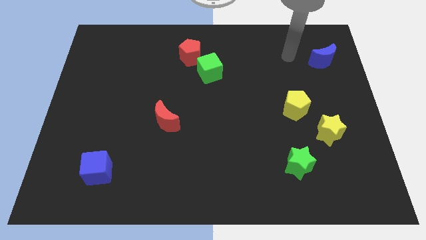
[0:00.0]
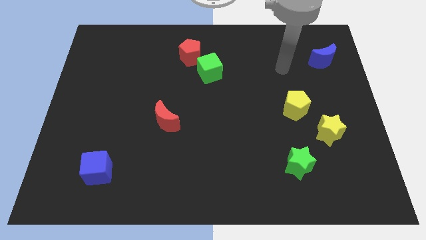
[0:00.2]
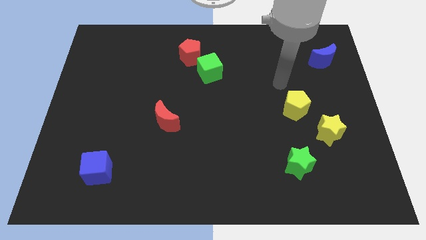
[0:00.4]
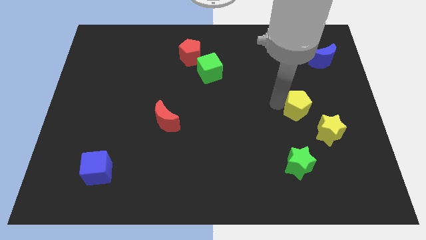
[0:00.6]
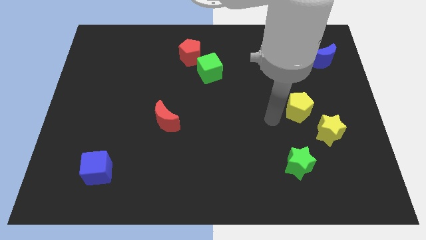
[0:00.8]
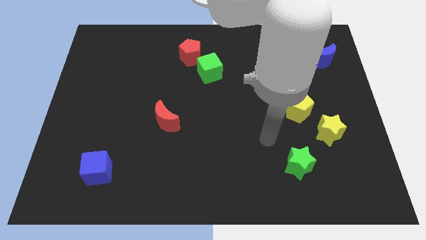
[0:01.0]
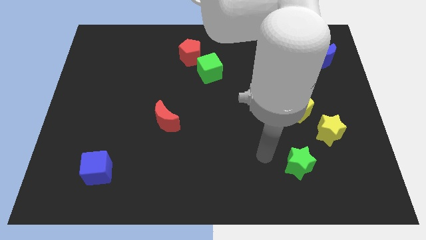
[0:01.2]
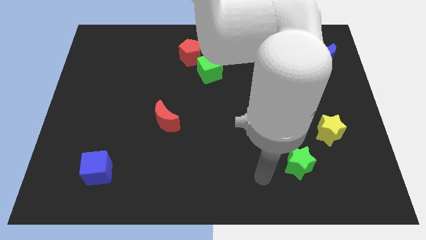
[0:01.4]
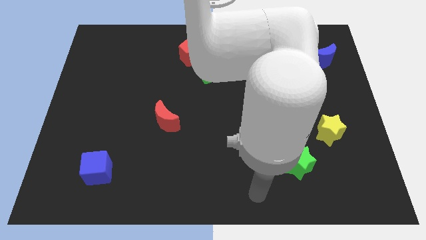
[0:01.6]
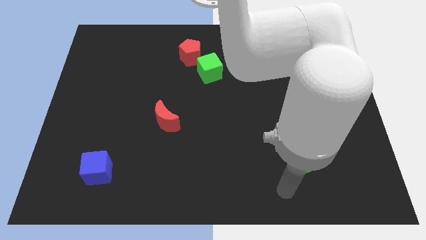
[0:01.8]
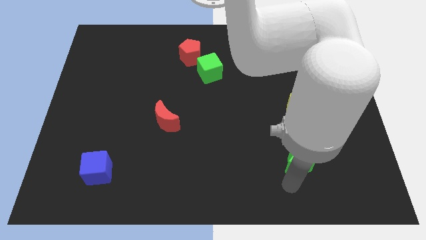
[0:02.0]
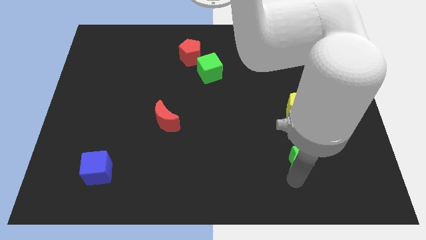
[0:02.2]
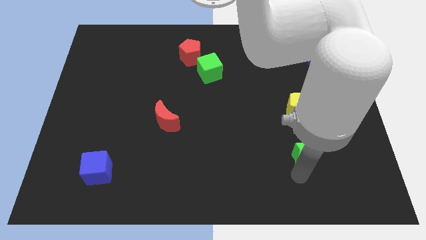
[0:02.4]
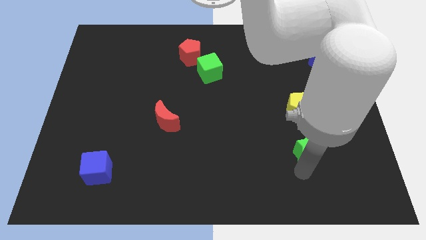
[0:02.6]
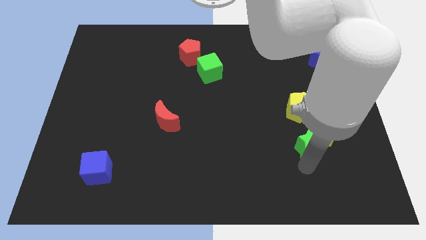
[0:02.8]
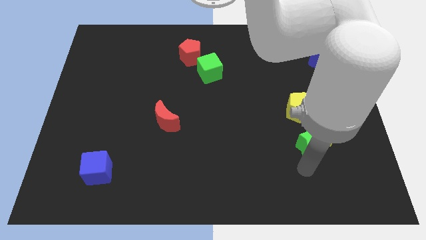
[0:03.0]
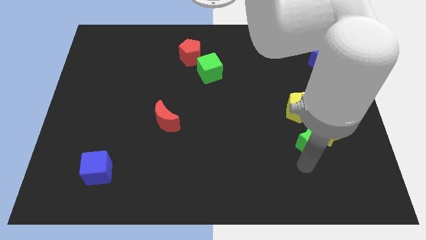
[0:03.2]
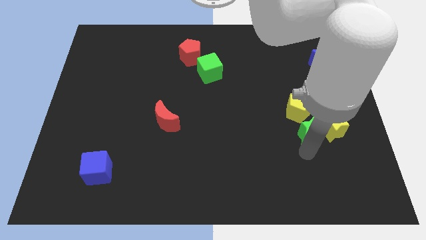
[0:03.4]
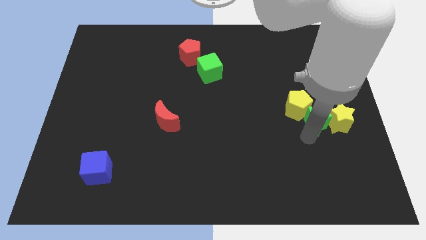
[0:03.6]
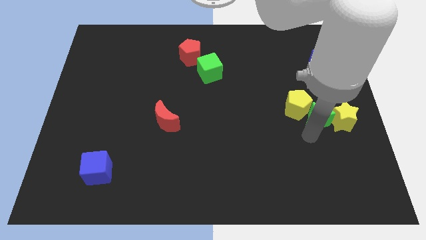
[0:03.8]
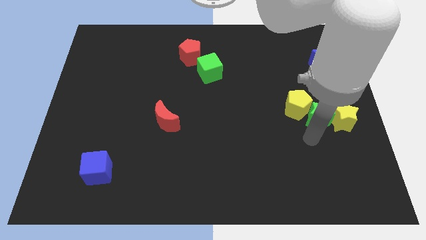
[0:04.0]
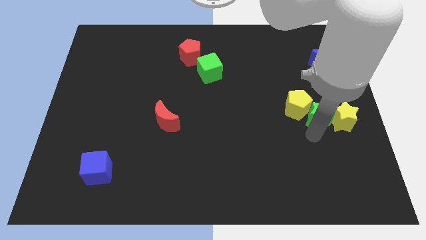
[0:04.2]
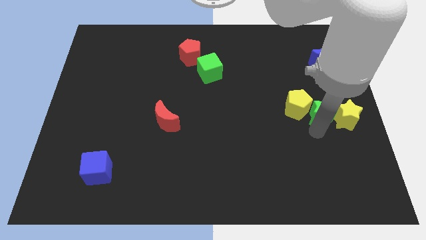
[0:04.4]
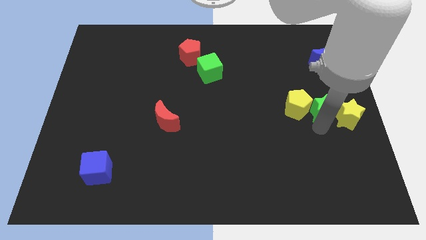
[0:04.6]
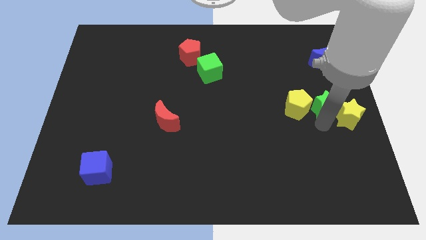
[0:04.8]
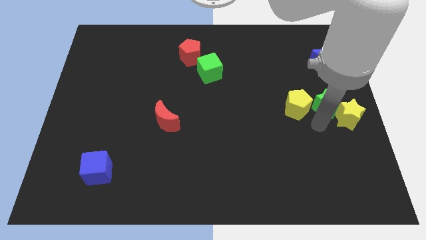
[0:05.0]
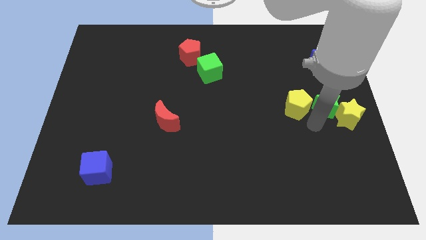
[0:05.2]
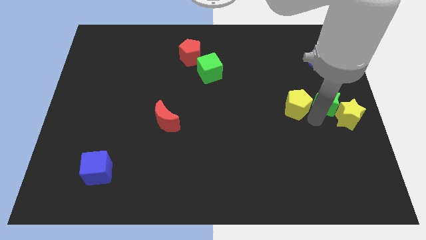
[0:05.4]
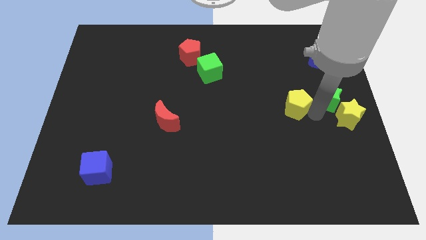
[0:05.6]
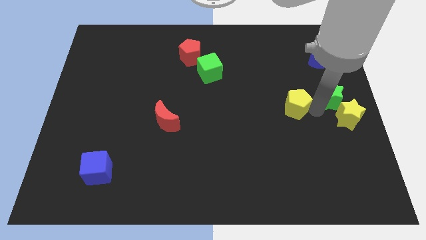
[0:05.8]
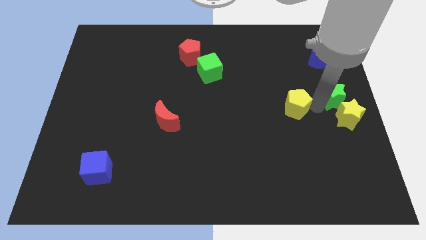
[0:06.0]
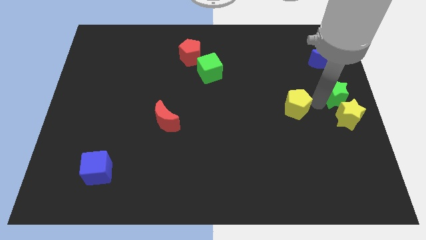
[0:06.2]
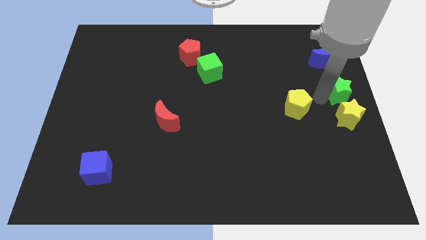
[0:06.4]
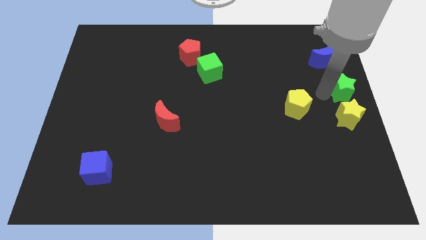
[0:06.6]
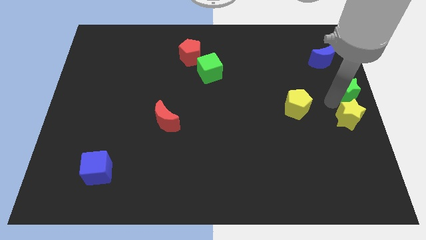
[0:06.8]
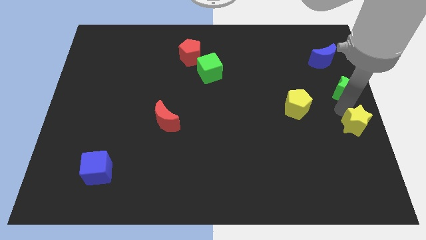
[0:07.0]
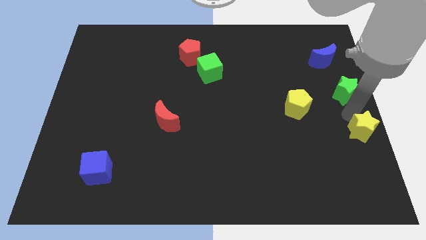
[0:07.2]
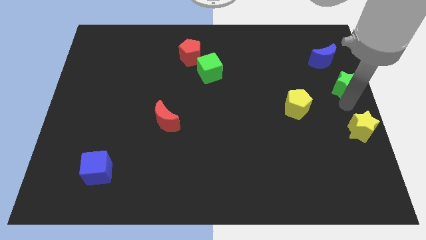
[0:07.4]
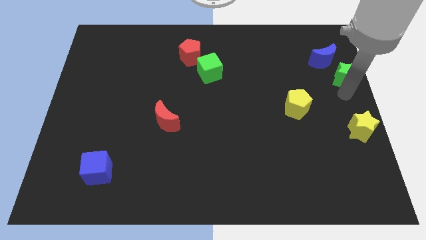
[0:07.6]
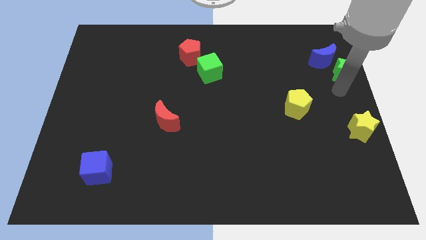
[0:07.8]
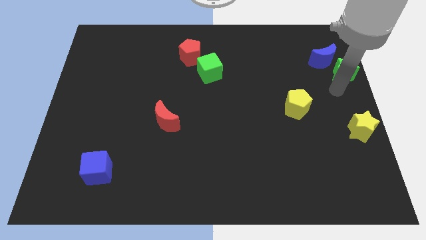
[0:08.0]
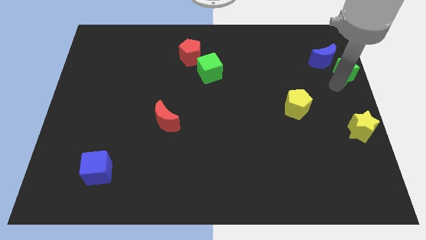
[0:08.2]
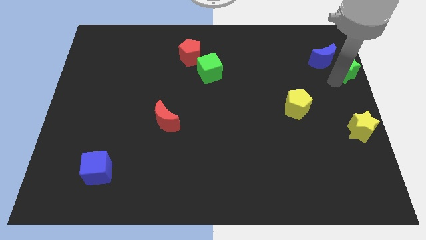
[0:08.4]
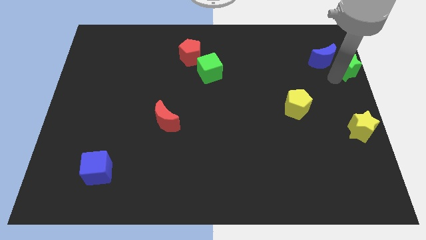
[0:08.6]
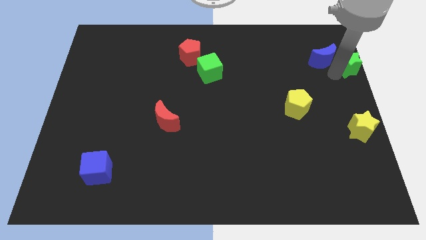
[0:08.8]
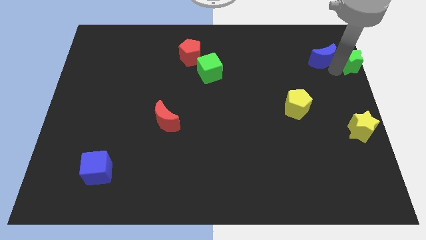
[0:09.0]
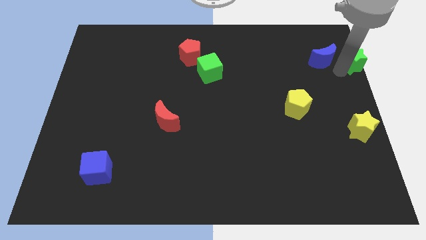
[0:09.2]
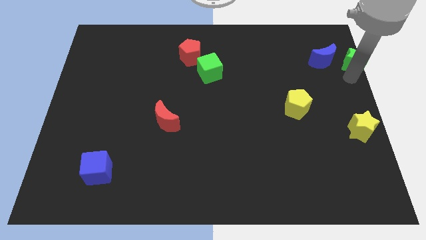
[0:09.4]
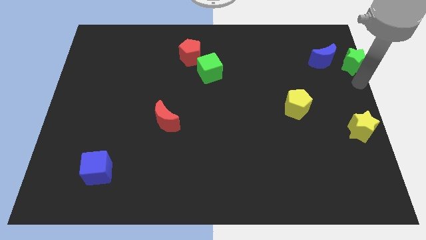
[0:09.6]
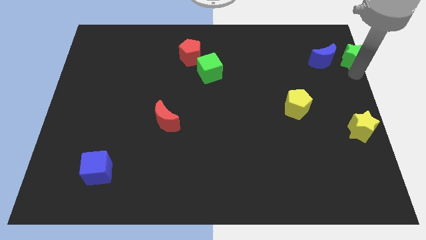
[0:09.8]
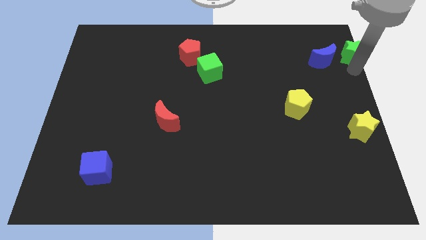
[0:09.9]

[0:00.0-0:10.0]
push the green star to the top right

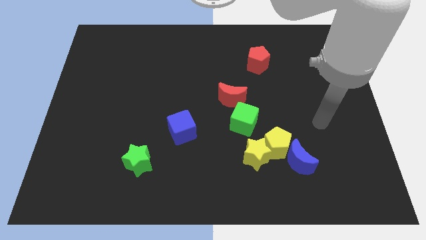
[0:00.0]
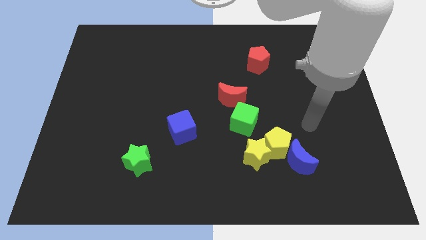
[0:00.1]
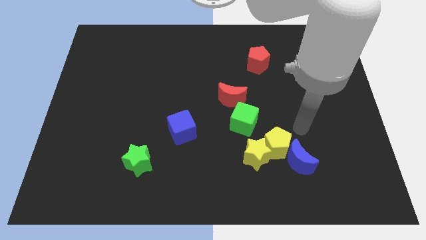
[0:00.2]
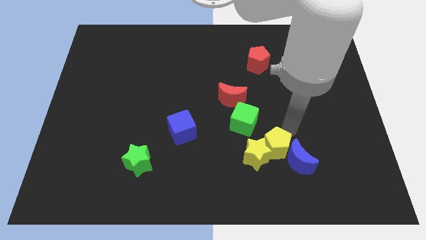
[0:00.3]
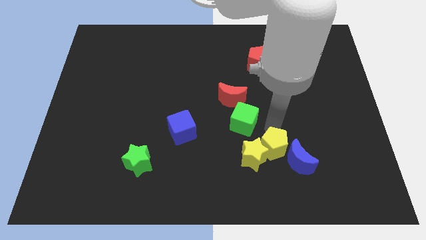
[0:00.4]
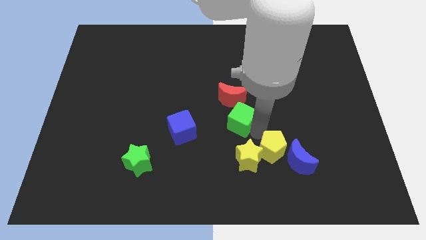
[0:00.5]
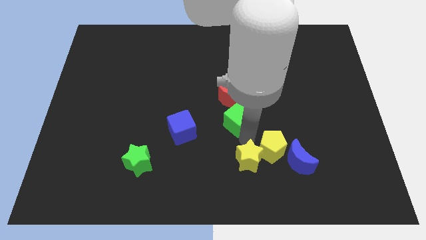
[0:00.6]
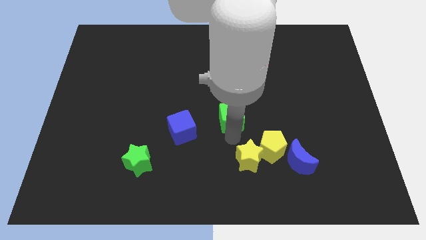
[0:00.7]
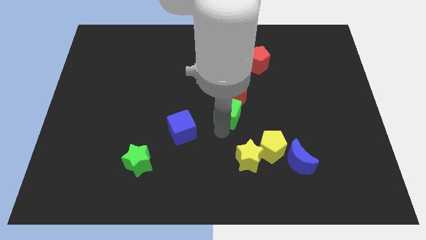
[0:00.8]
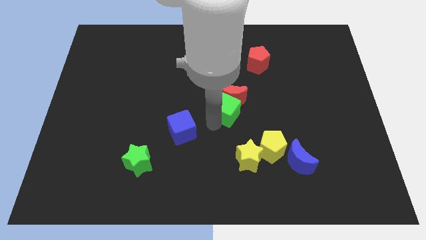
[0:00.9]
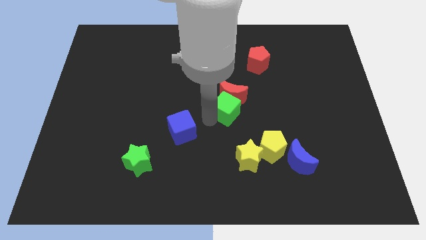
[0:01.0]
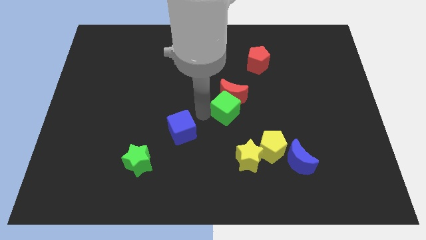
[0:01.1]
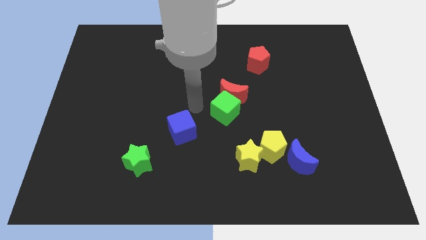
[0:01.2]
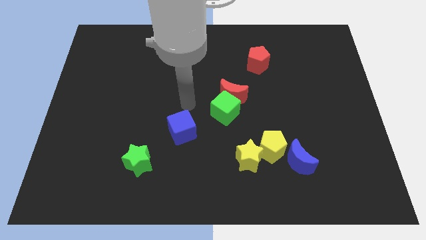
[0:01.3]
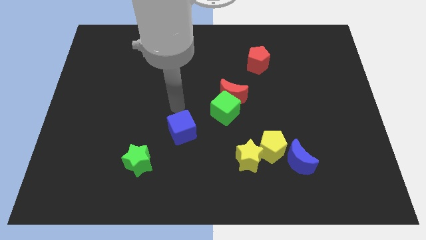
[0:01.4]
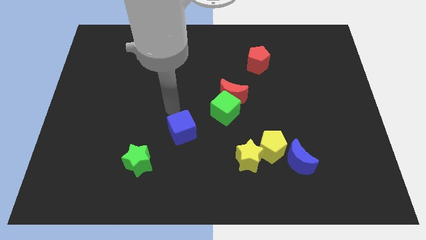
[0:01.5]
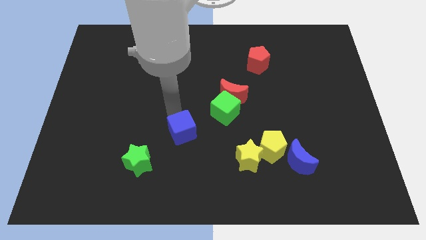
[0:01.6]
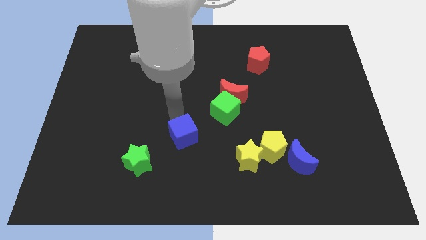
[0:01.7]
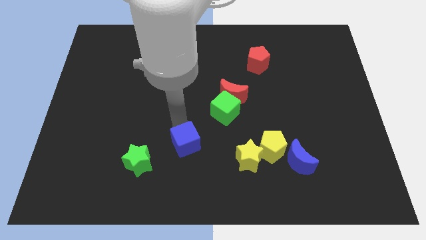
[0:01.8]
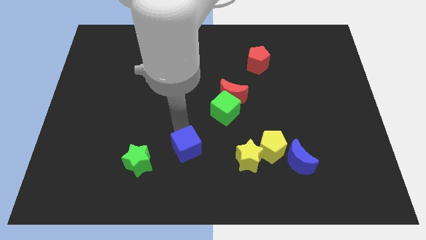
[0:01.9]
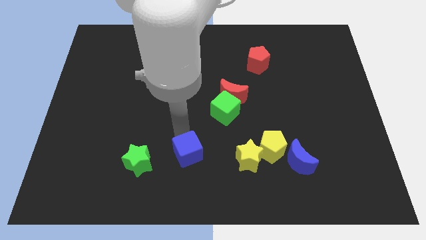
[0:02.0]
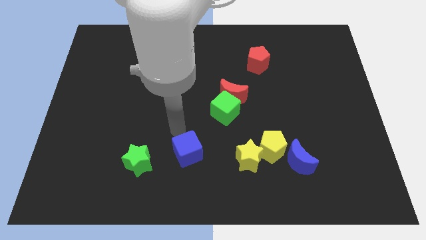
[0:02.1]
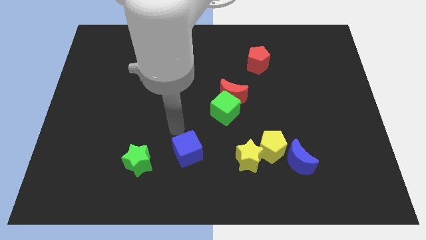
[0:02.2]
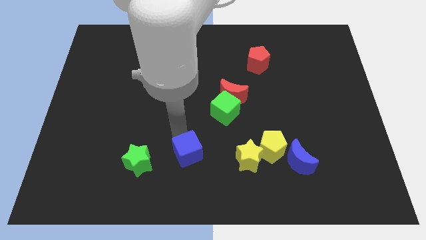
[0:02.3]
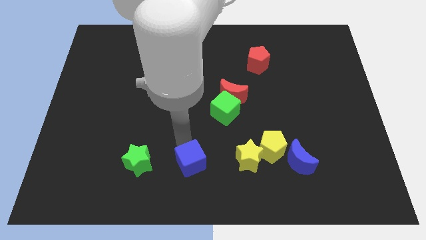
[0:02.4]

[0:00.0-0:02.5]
slide the blue cube to the bottom side

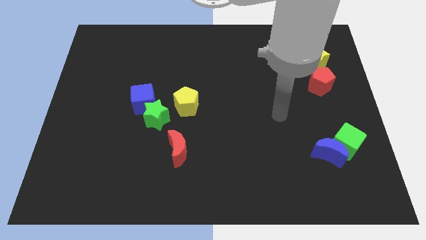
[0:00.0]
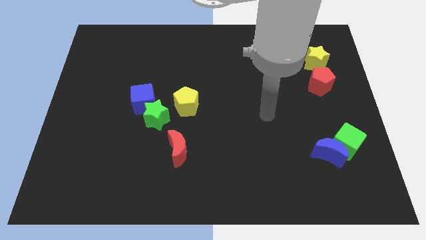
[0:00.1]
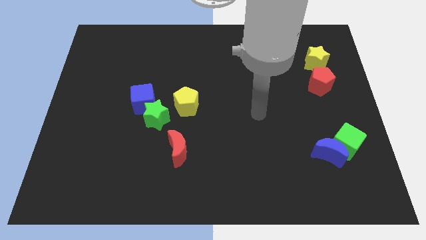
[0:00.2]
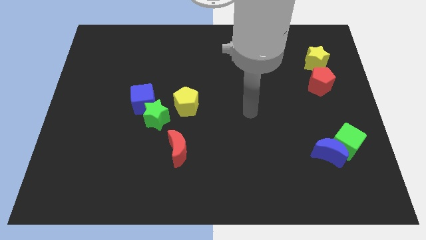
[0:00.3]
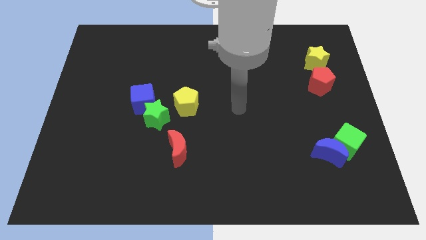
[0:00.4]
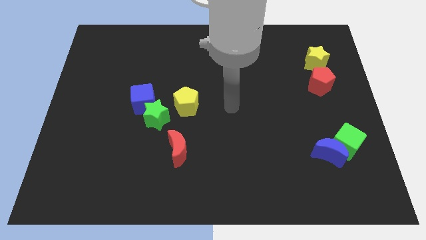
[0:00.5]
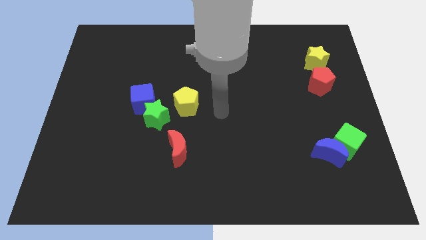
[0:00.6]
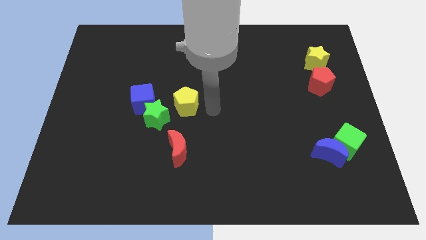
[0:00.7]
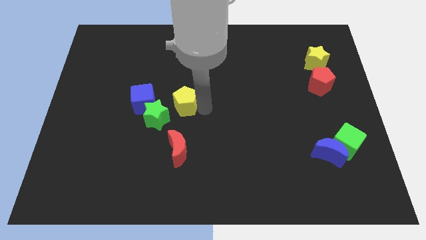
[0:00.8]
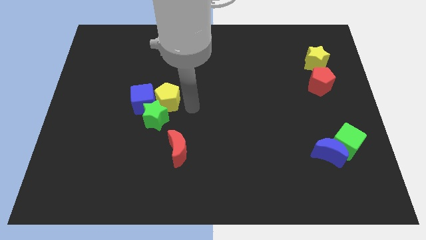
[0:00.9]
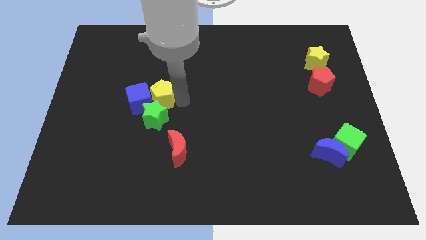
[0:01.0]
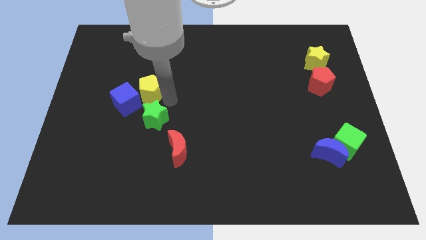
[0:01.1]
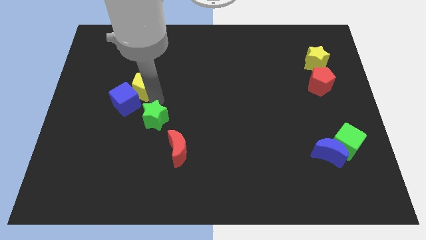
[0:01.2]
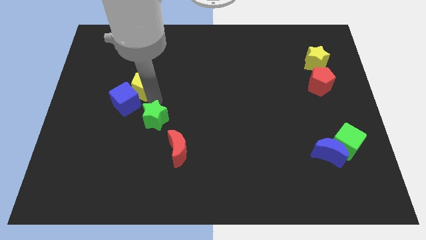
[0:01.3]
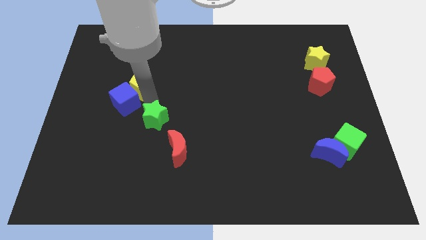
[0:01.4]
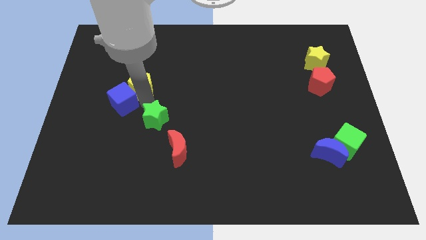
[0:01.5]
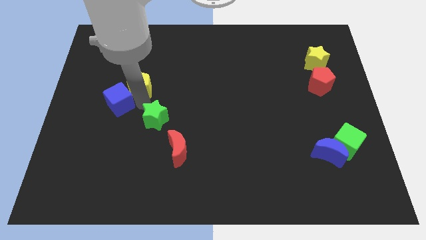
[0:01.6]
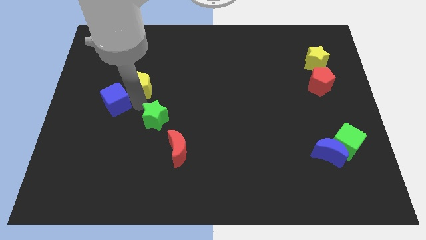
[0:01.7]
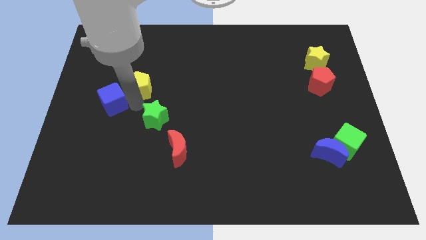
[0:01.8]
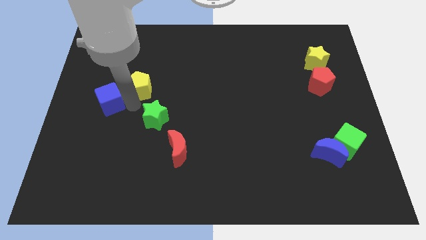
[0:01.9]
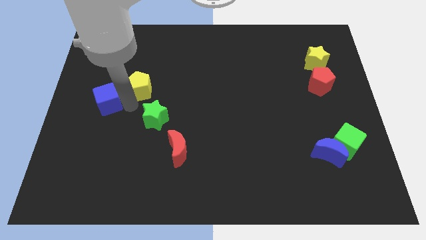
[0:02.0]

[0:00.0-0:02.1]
put the blue cube to the left side
